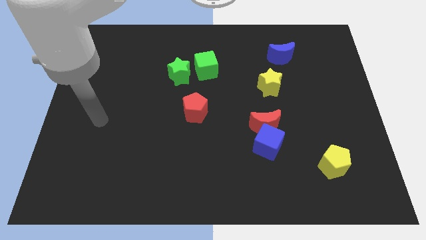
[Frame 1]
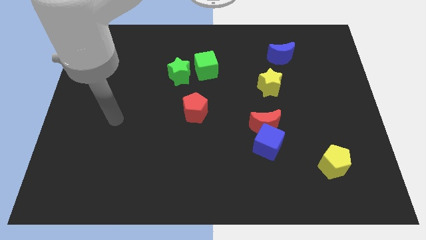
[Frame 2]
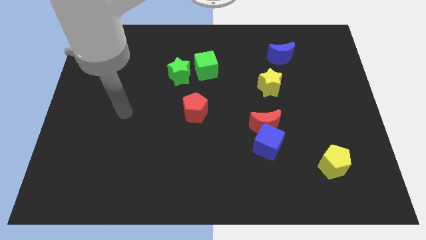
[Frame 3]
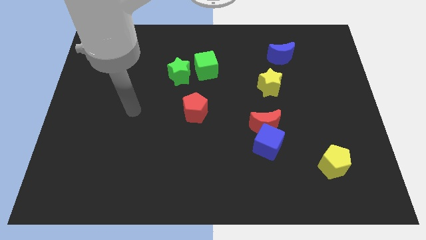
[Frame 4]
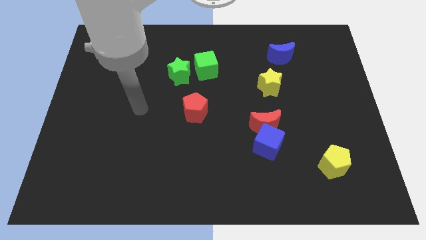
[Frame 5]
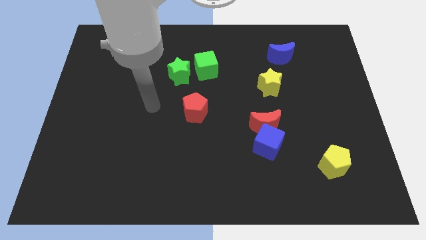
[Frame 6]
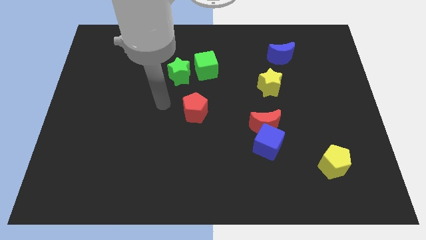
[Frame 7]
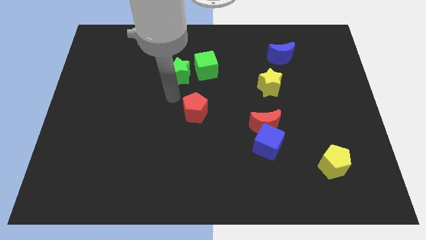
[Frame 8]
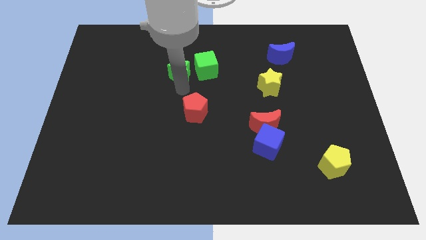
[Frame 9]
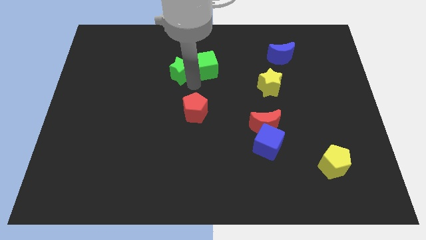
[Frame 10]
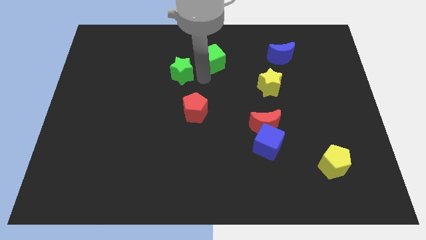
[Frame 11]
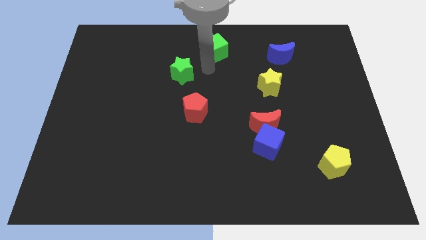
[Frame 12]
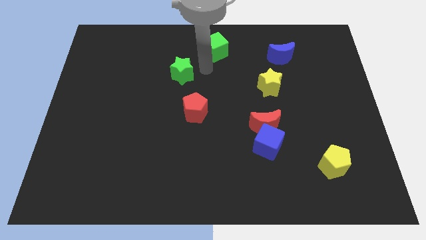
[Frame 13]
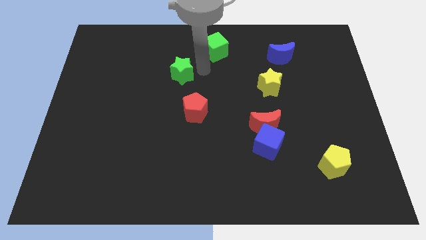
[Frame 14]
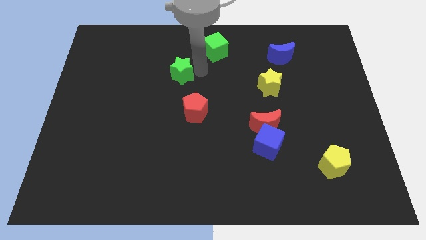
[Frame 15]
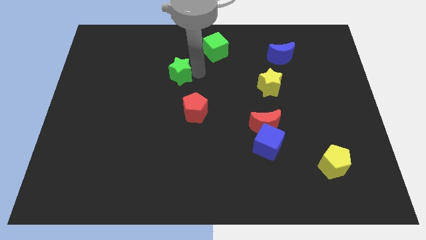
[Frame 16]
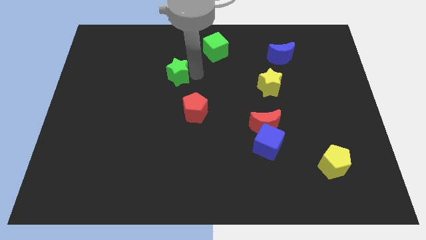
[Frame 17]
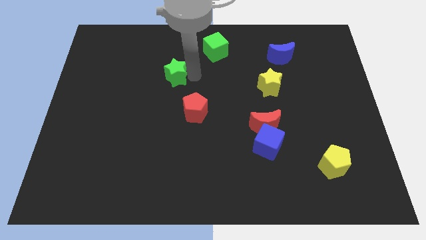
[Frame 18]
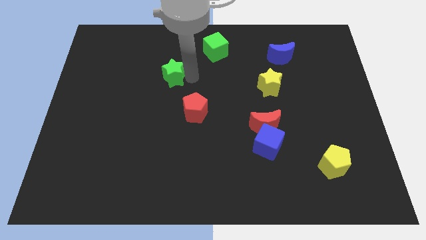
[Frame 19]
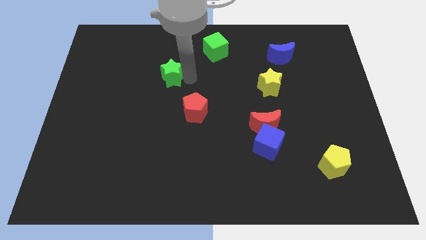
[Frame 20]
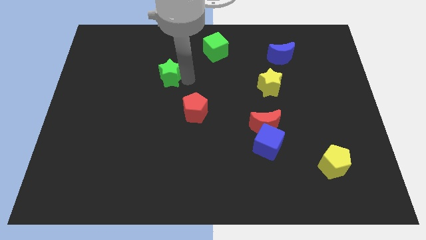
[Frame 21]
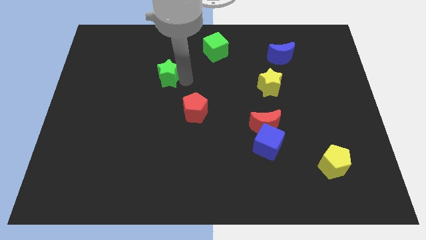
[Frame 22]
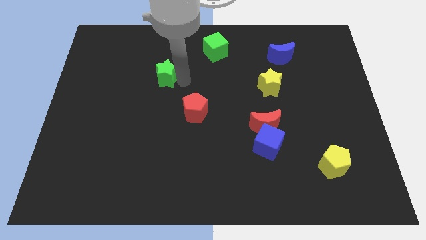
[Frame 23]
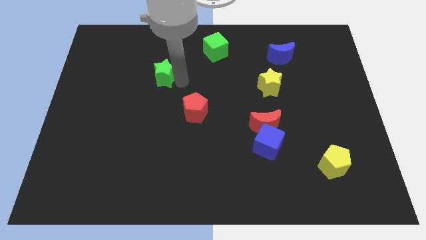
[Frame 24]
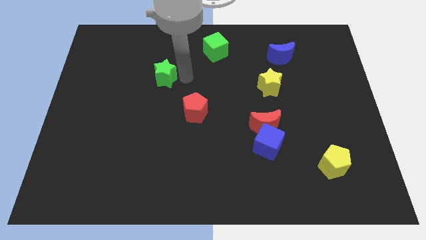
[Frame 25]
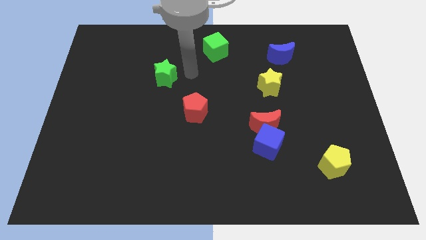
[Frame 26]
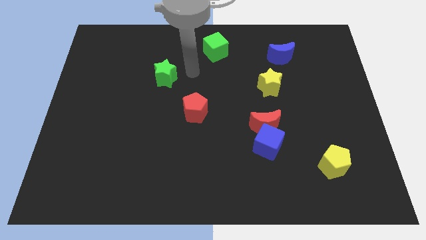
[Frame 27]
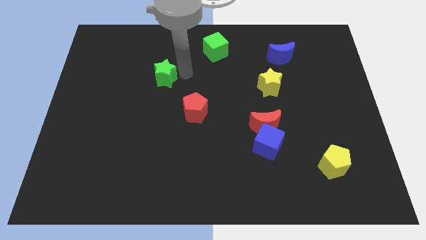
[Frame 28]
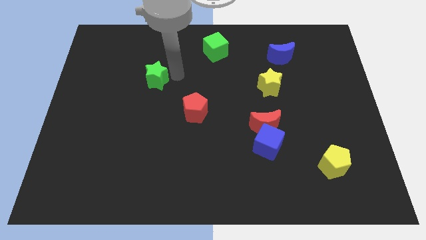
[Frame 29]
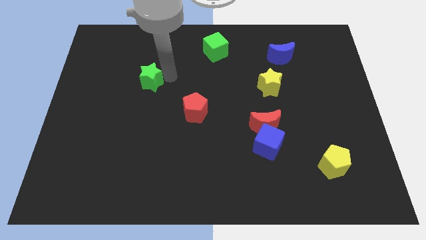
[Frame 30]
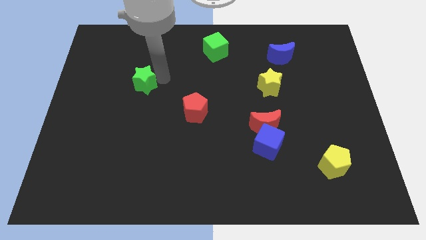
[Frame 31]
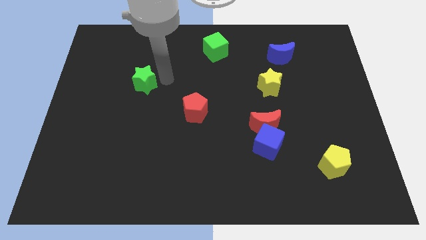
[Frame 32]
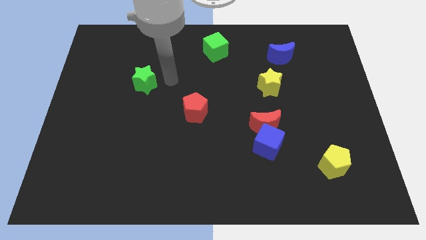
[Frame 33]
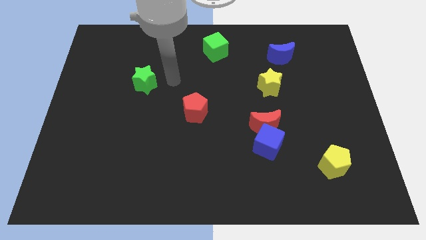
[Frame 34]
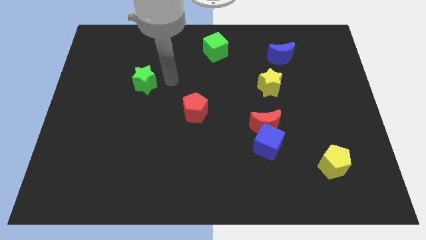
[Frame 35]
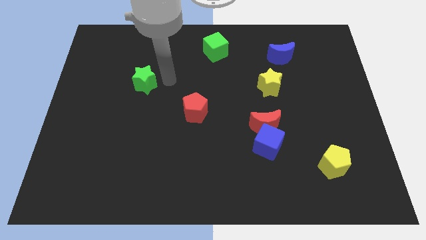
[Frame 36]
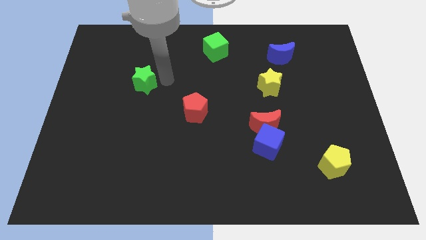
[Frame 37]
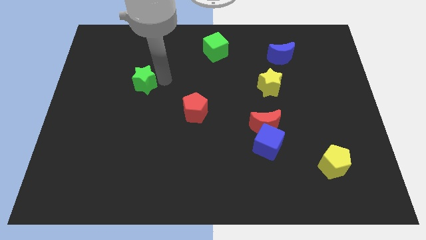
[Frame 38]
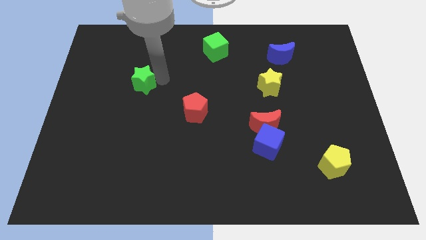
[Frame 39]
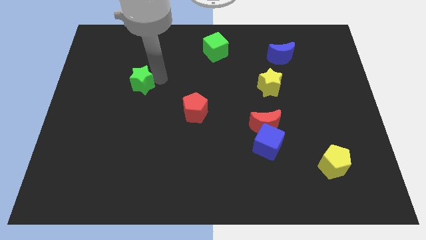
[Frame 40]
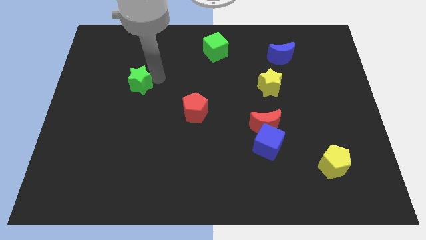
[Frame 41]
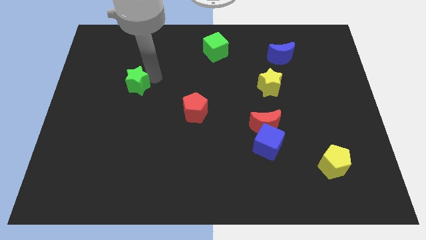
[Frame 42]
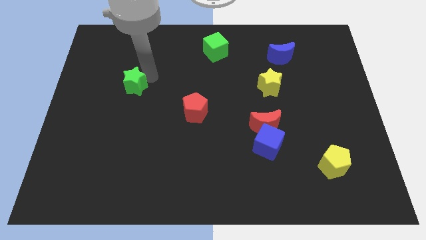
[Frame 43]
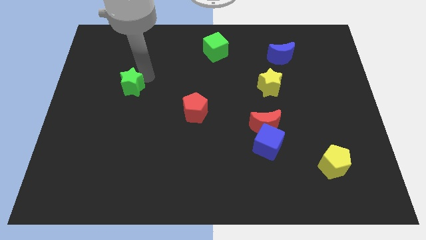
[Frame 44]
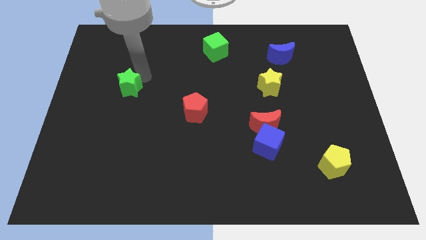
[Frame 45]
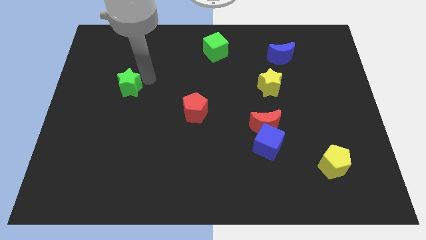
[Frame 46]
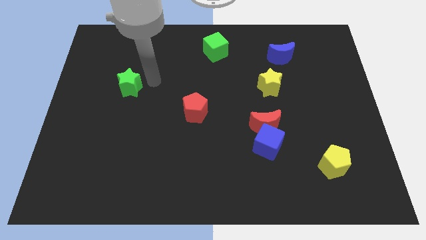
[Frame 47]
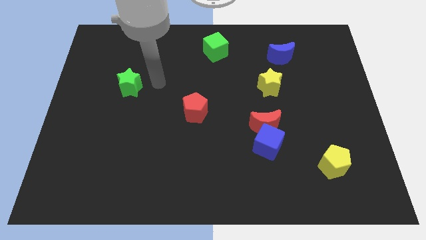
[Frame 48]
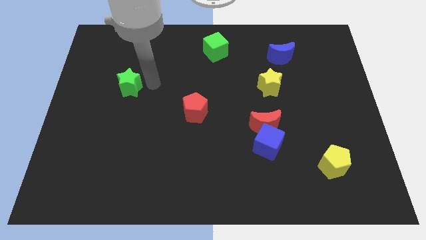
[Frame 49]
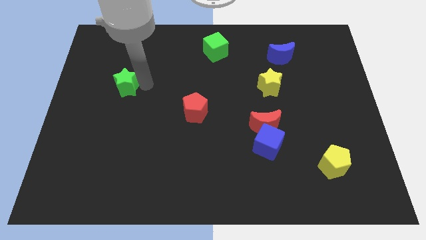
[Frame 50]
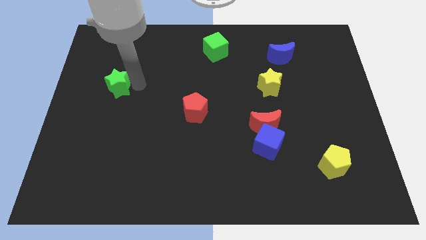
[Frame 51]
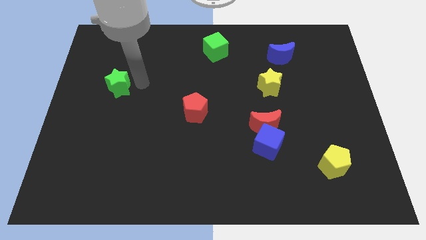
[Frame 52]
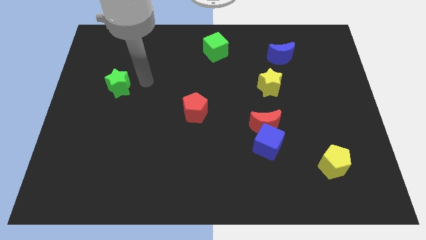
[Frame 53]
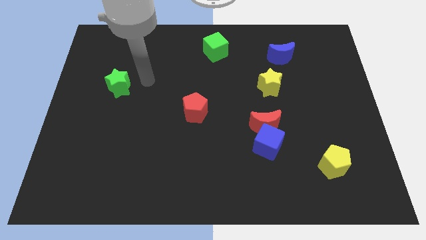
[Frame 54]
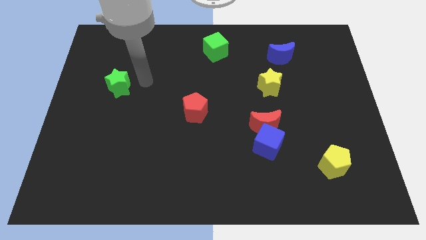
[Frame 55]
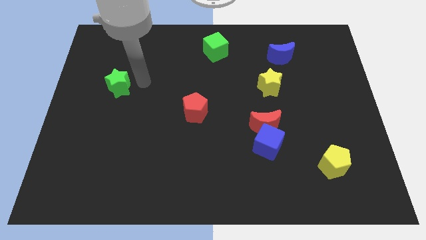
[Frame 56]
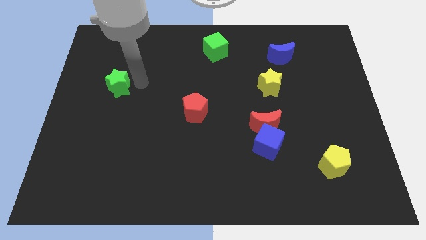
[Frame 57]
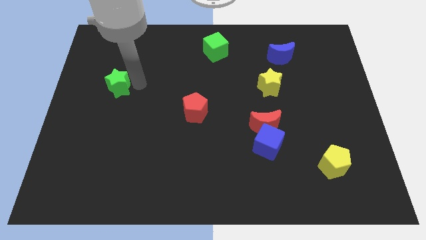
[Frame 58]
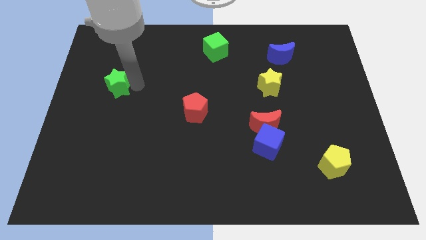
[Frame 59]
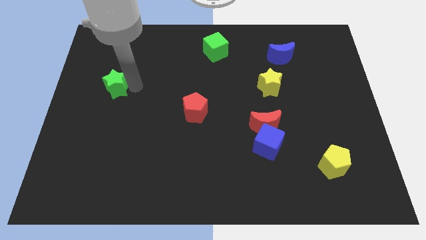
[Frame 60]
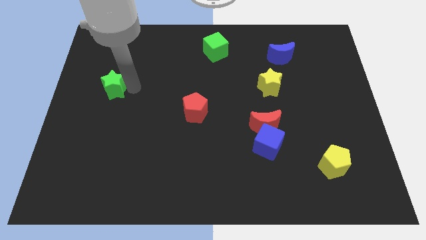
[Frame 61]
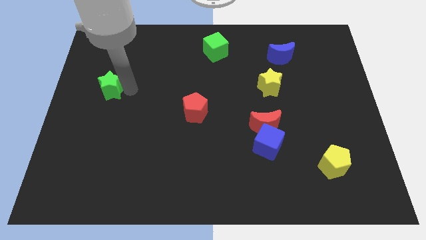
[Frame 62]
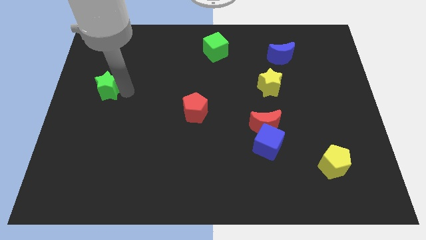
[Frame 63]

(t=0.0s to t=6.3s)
slide the green star to the left side of the board
